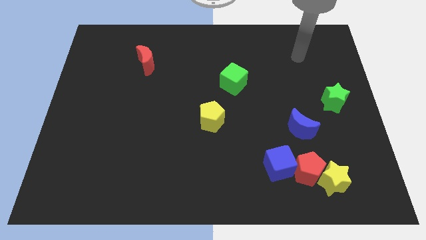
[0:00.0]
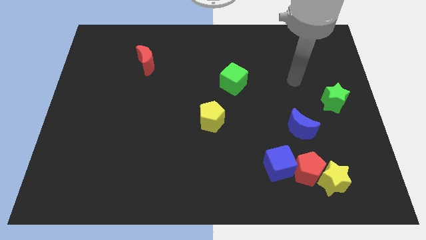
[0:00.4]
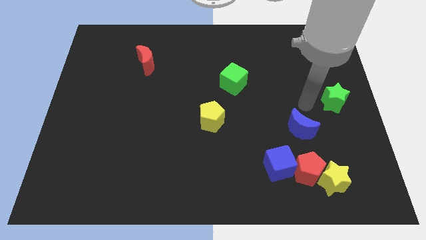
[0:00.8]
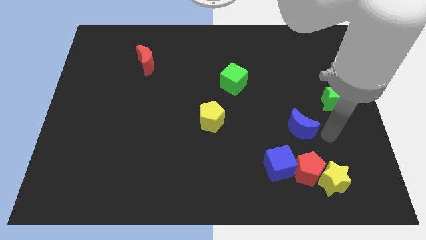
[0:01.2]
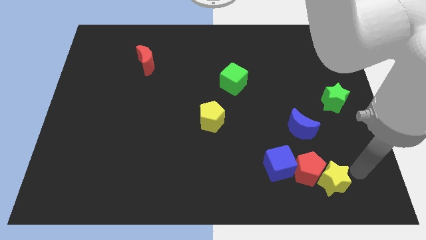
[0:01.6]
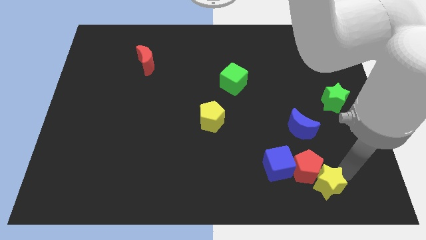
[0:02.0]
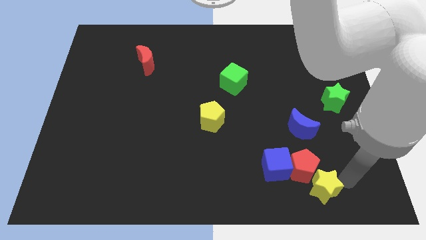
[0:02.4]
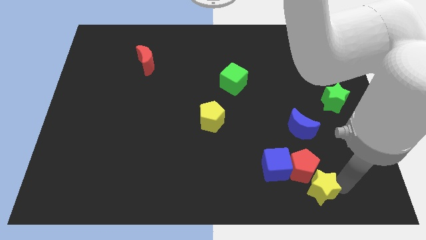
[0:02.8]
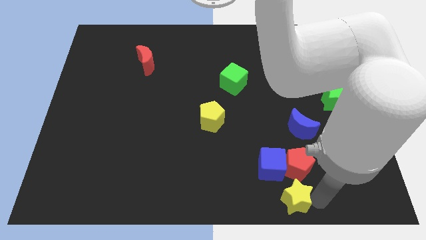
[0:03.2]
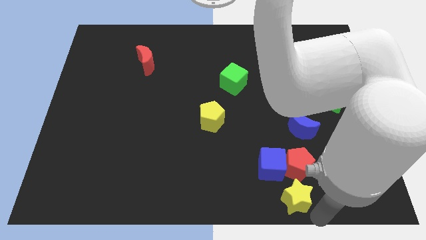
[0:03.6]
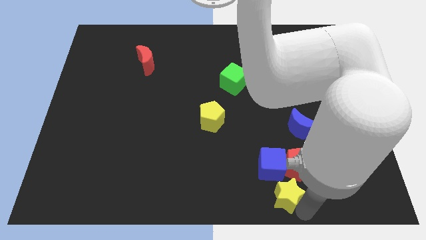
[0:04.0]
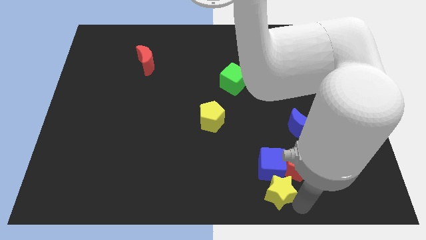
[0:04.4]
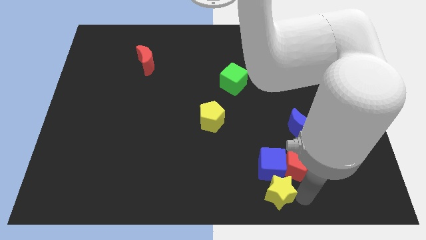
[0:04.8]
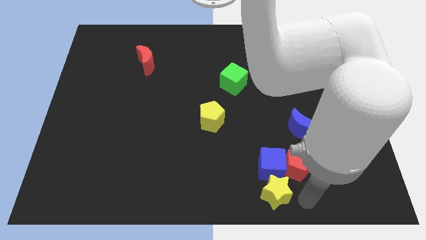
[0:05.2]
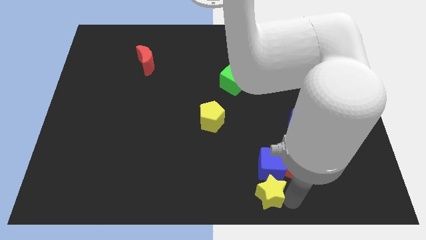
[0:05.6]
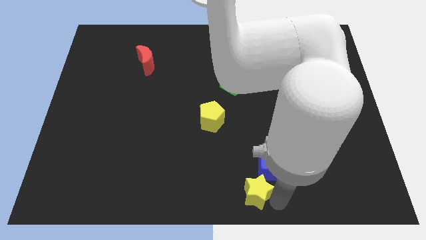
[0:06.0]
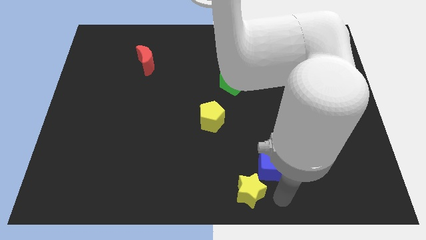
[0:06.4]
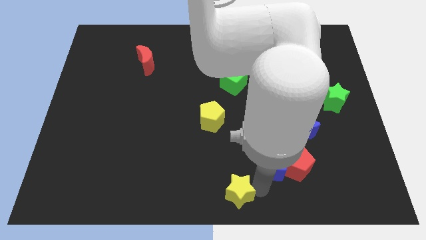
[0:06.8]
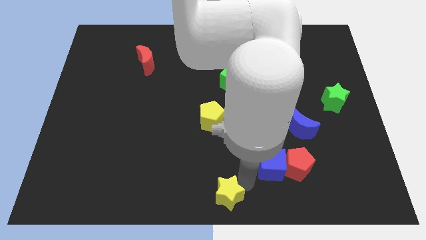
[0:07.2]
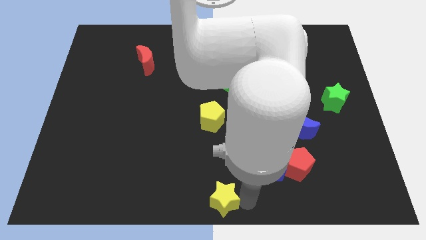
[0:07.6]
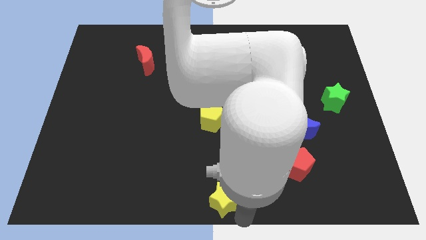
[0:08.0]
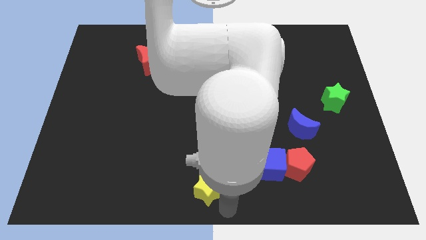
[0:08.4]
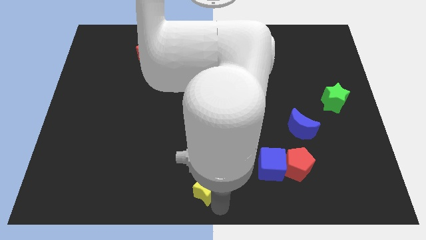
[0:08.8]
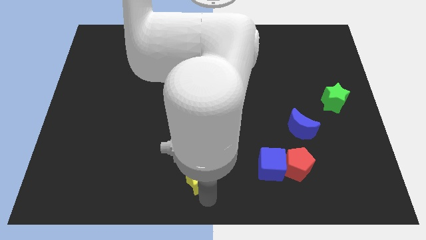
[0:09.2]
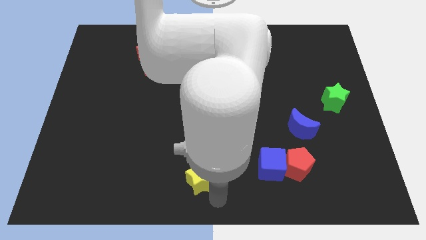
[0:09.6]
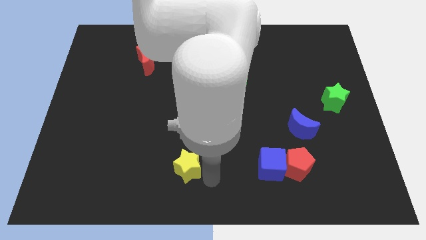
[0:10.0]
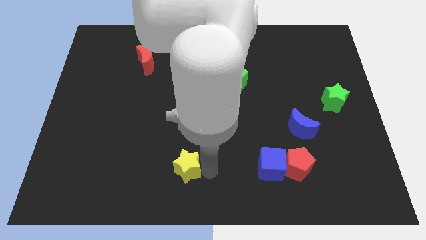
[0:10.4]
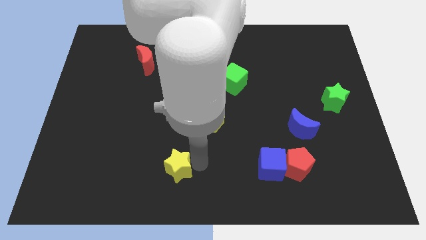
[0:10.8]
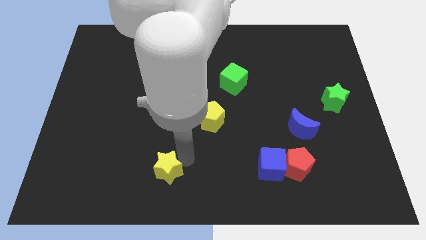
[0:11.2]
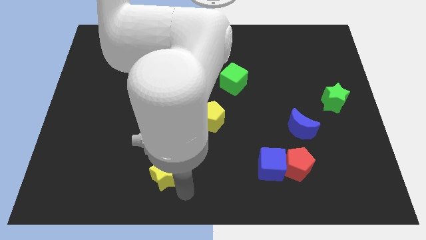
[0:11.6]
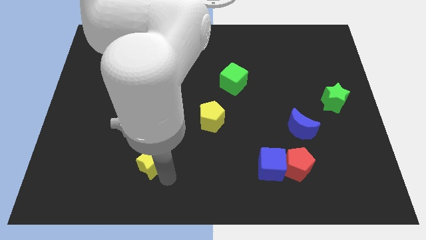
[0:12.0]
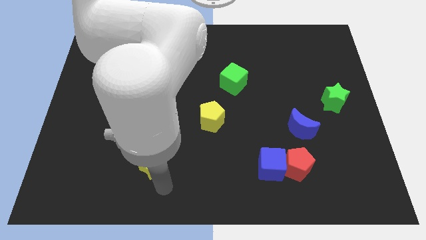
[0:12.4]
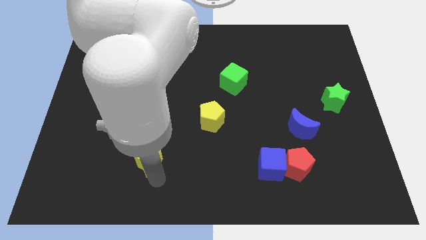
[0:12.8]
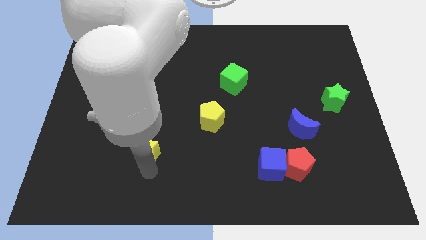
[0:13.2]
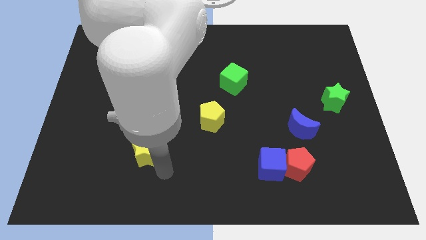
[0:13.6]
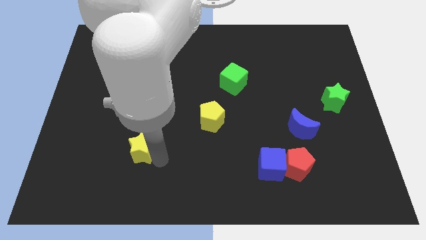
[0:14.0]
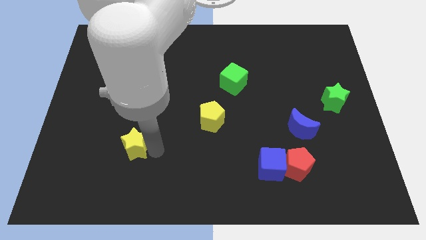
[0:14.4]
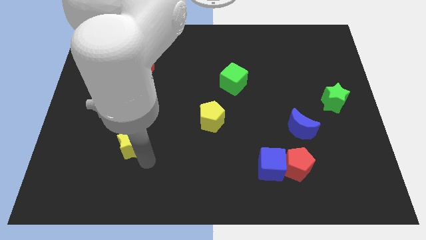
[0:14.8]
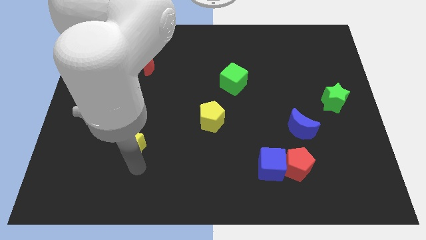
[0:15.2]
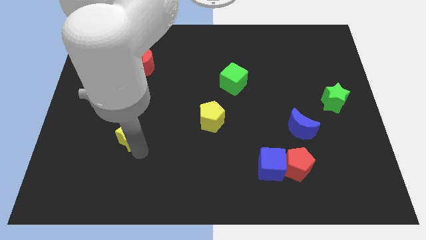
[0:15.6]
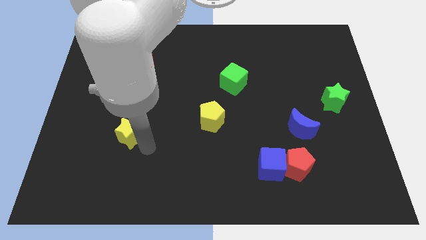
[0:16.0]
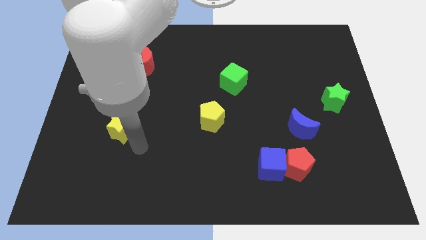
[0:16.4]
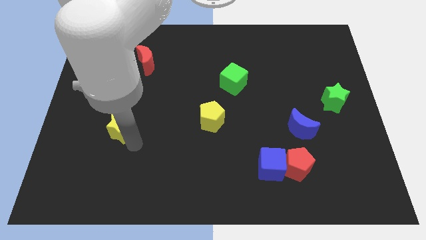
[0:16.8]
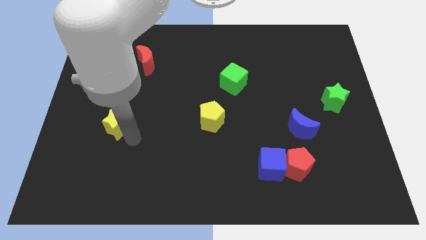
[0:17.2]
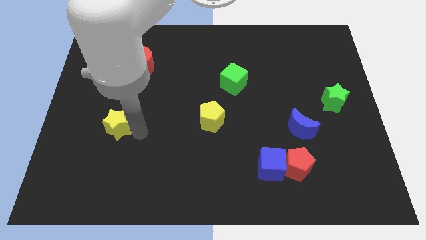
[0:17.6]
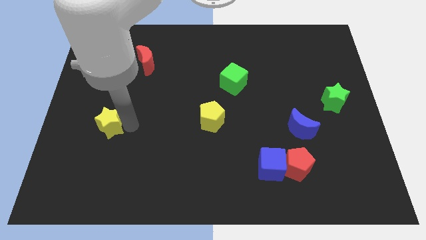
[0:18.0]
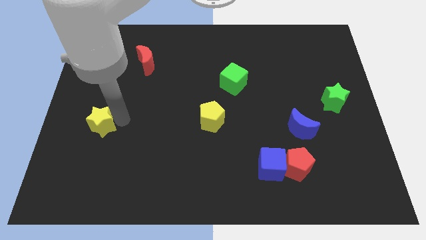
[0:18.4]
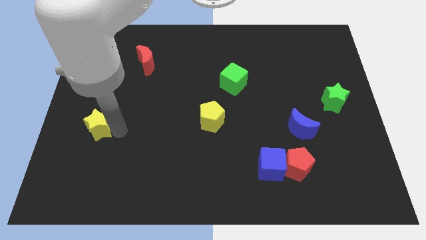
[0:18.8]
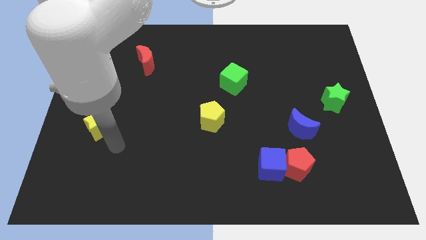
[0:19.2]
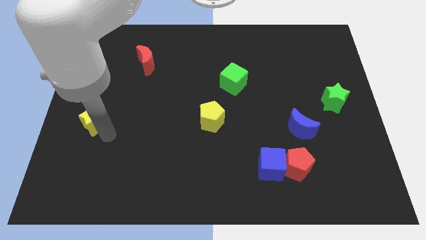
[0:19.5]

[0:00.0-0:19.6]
put the yellow star to the left side of the board

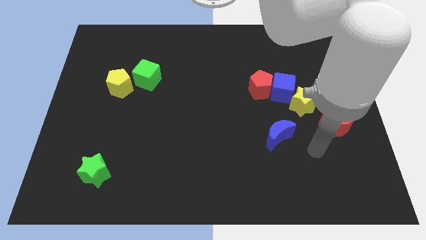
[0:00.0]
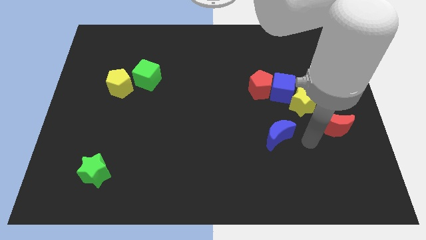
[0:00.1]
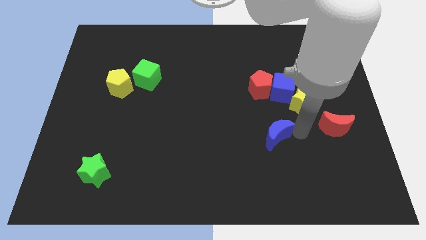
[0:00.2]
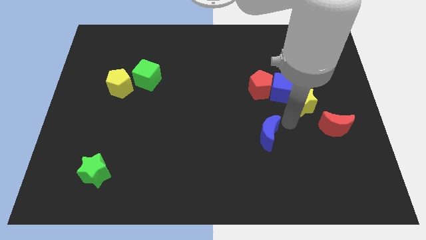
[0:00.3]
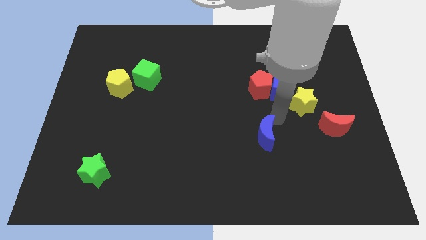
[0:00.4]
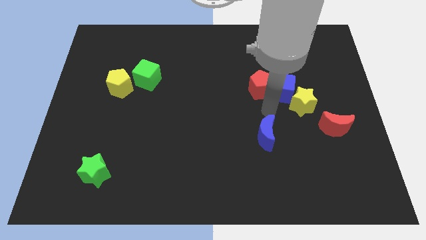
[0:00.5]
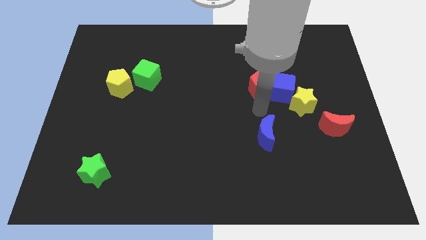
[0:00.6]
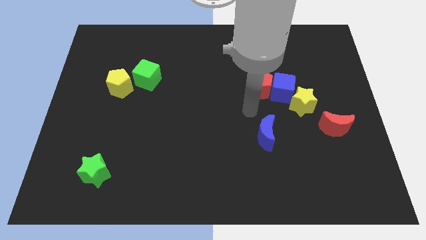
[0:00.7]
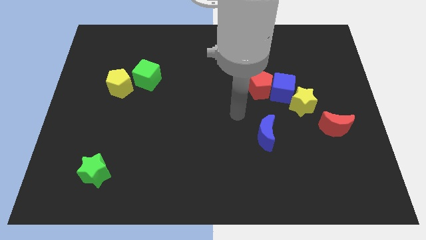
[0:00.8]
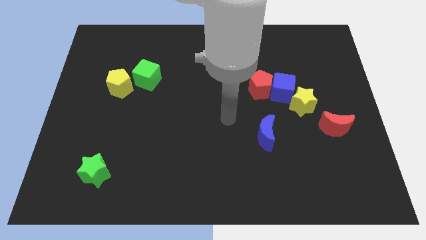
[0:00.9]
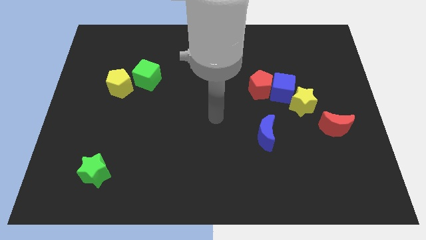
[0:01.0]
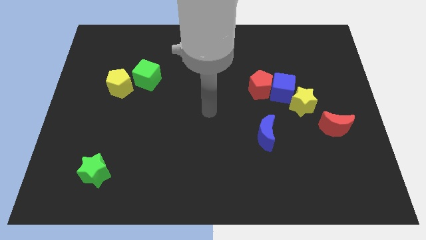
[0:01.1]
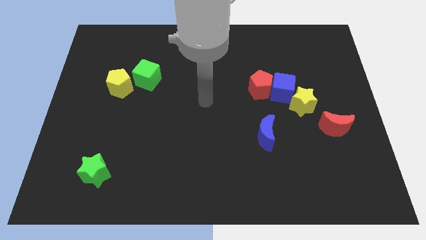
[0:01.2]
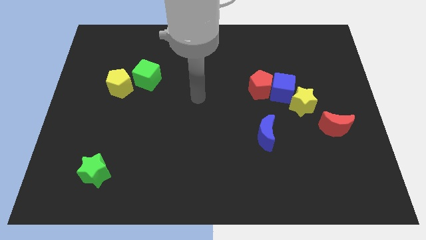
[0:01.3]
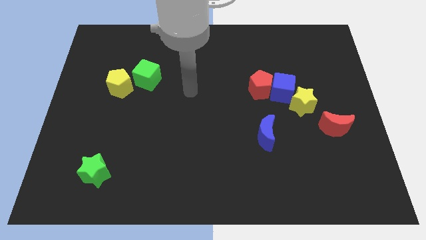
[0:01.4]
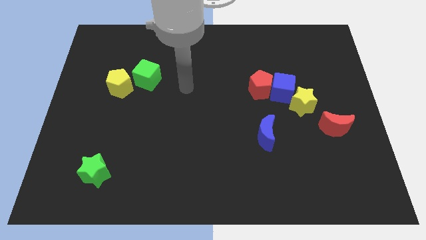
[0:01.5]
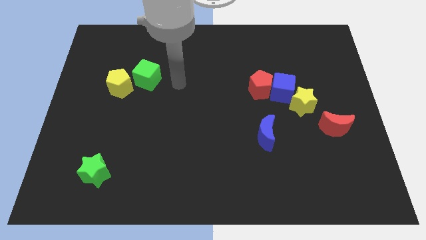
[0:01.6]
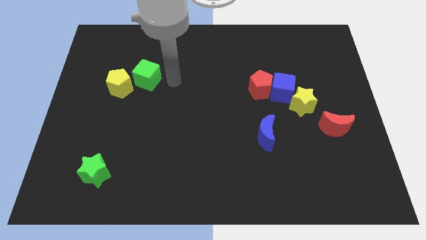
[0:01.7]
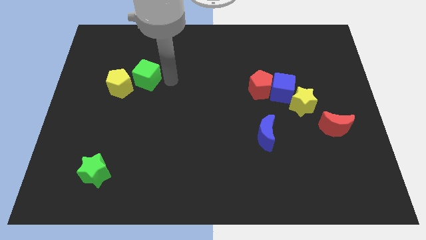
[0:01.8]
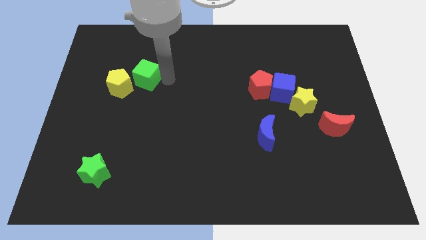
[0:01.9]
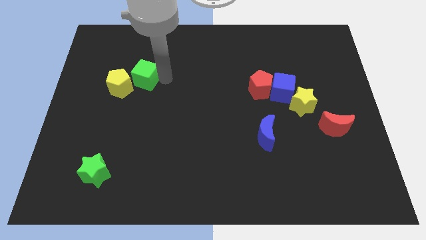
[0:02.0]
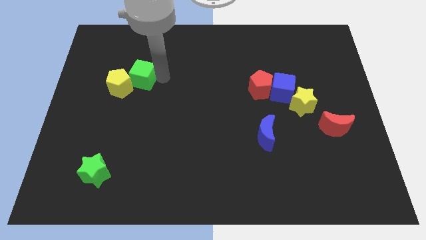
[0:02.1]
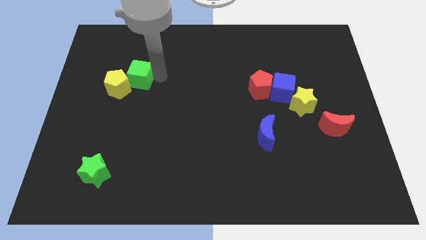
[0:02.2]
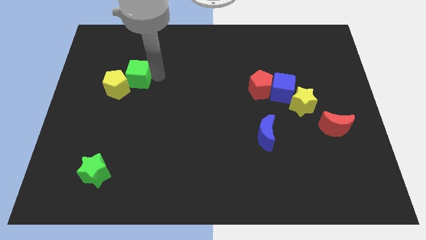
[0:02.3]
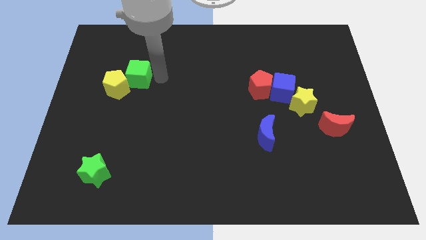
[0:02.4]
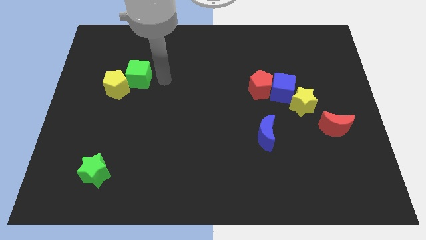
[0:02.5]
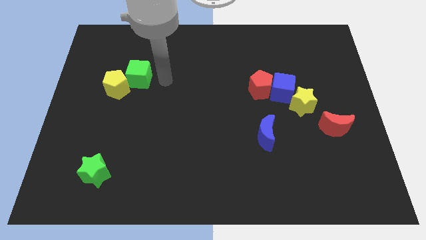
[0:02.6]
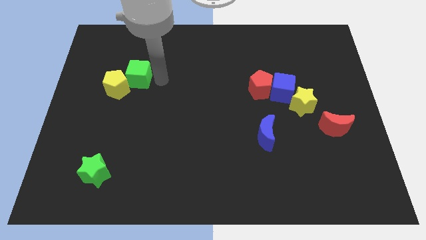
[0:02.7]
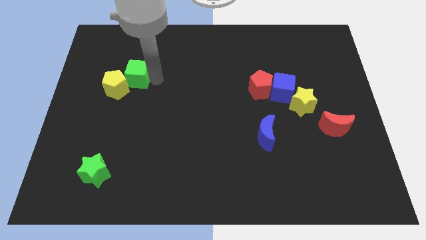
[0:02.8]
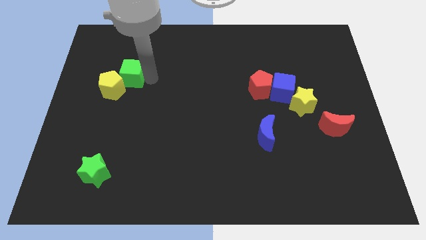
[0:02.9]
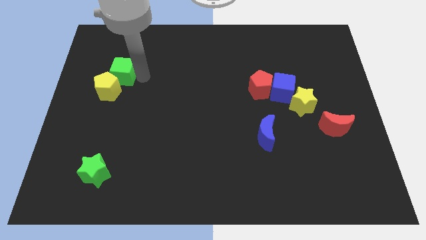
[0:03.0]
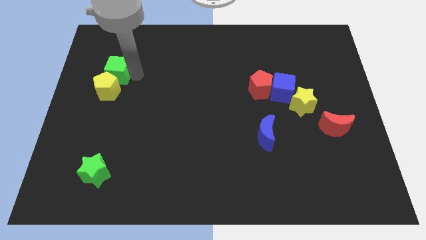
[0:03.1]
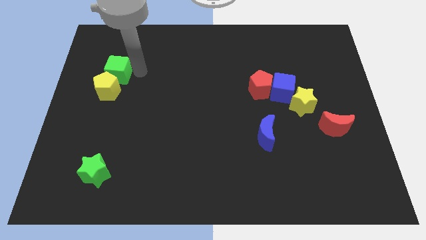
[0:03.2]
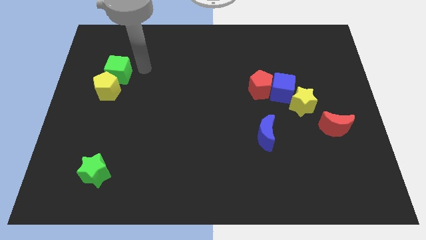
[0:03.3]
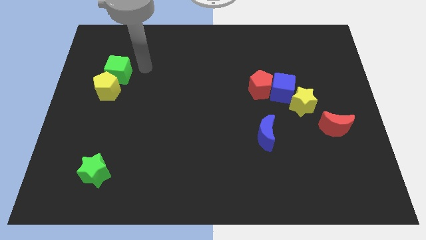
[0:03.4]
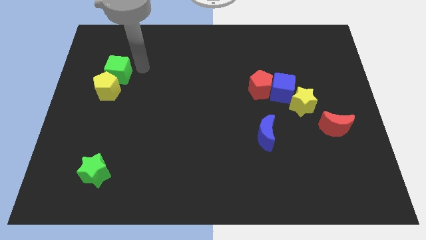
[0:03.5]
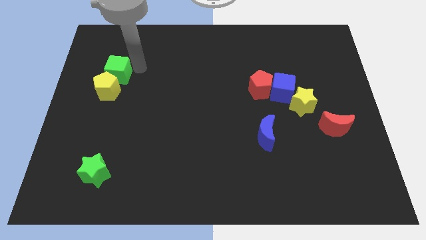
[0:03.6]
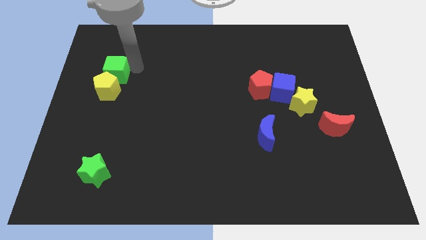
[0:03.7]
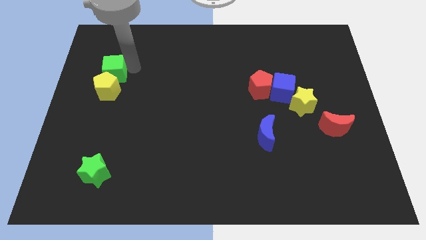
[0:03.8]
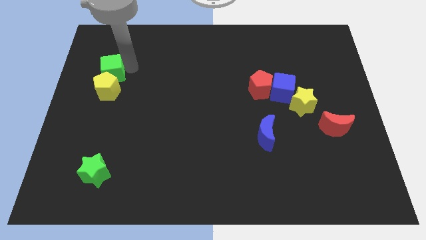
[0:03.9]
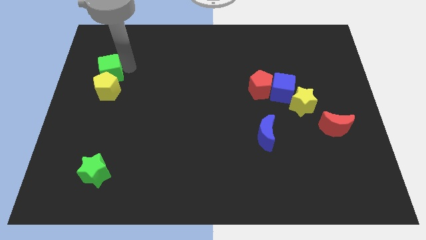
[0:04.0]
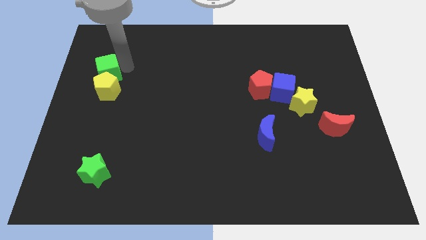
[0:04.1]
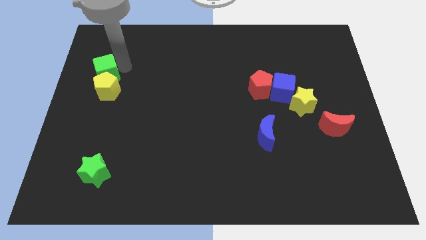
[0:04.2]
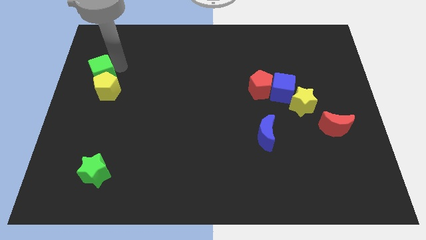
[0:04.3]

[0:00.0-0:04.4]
put the green cube to the left side
